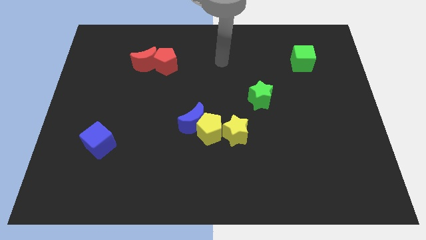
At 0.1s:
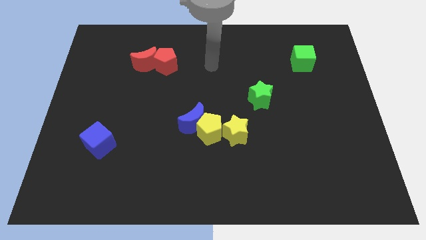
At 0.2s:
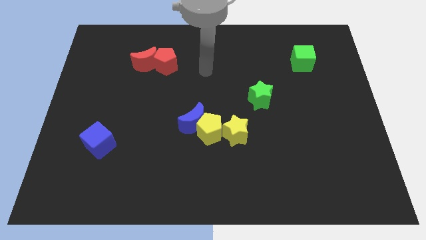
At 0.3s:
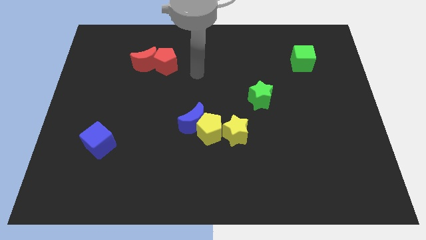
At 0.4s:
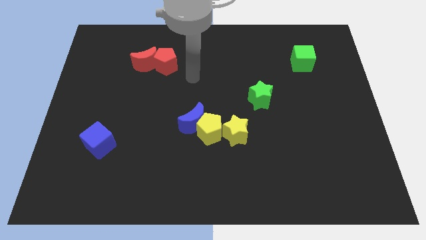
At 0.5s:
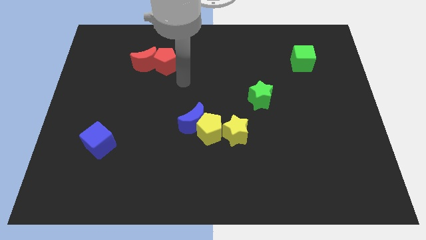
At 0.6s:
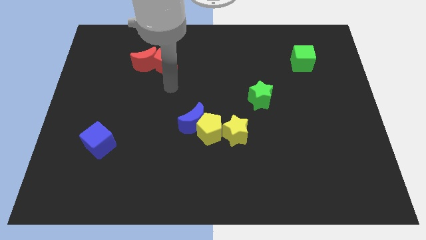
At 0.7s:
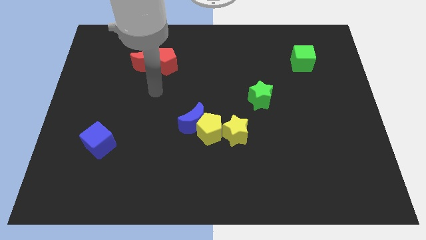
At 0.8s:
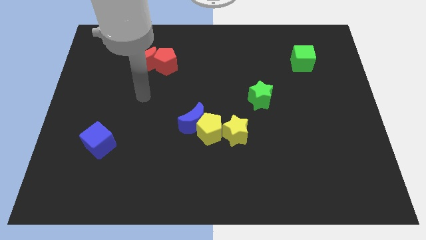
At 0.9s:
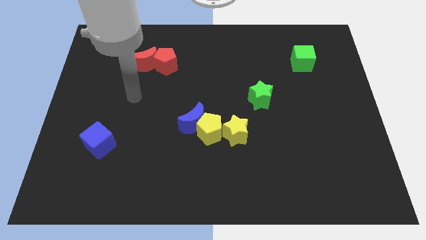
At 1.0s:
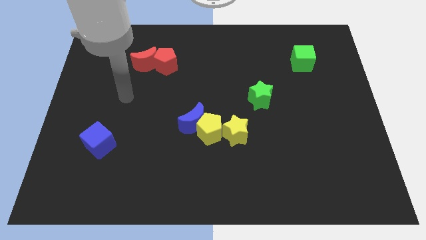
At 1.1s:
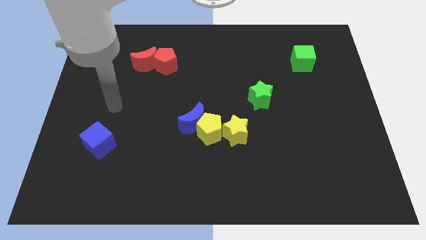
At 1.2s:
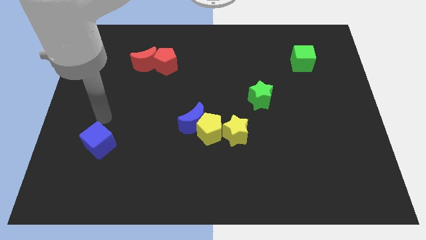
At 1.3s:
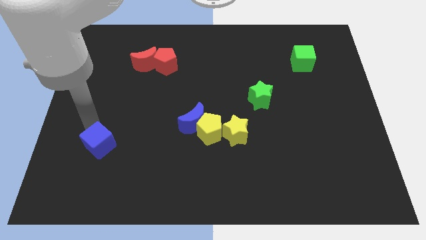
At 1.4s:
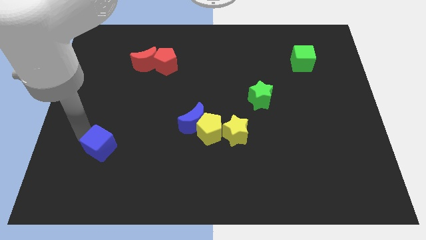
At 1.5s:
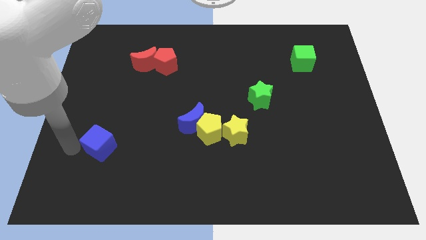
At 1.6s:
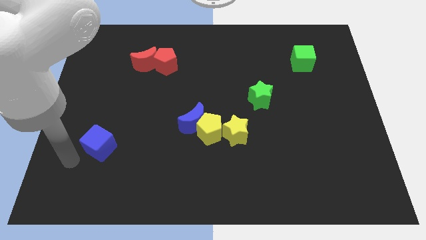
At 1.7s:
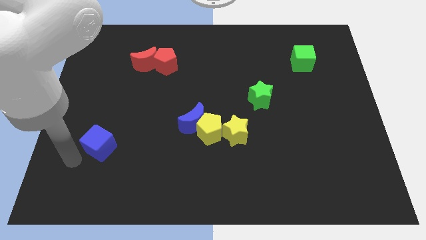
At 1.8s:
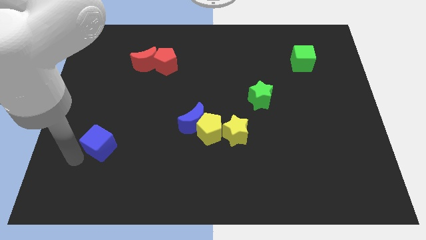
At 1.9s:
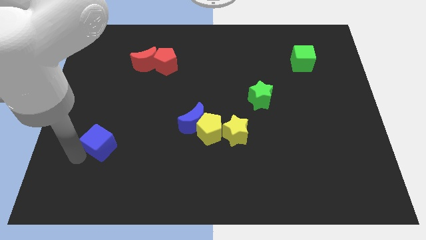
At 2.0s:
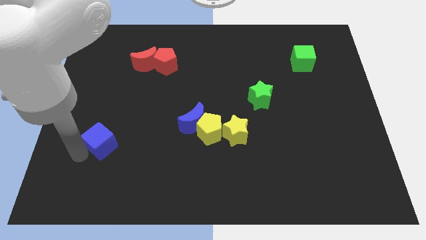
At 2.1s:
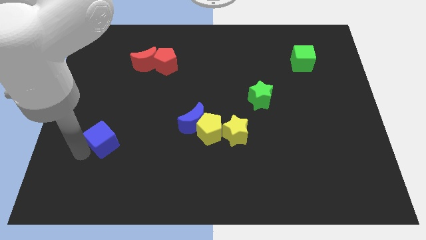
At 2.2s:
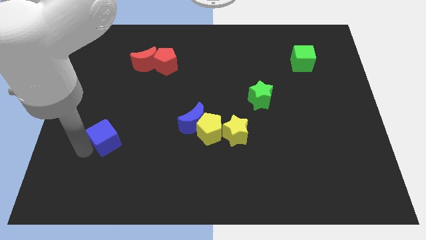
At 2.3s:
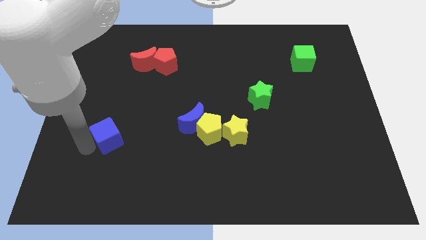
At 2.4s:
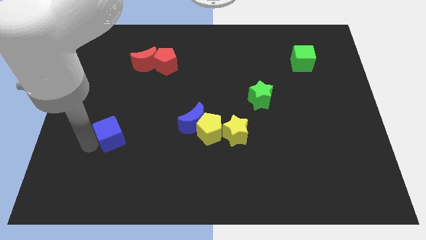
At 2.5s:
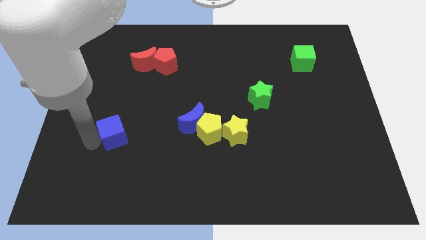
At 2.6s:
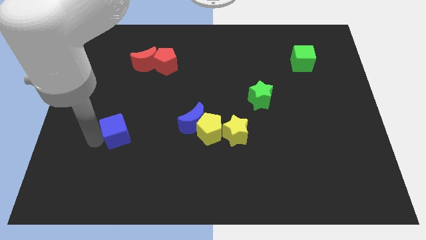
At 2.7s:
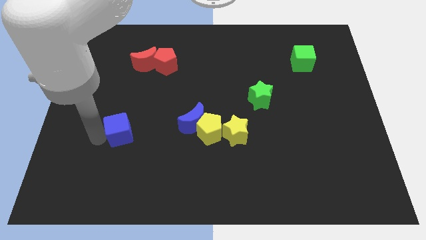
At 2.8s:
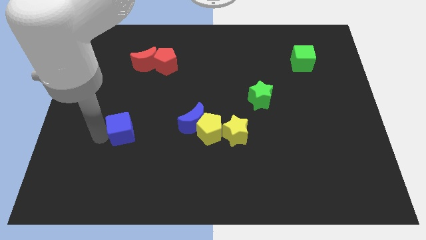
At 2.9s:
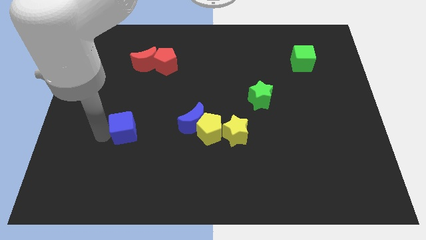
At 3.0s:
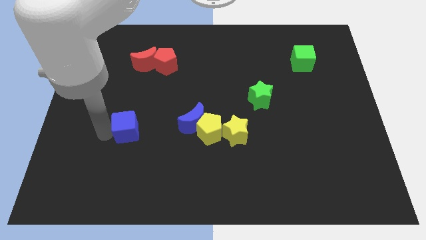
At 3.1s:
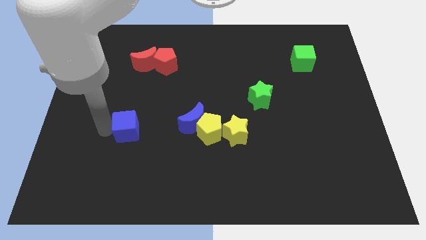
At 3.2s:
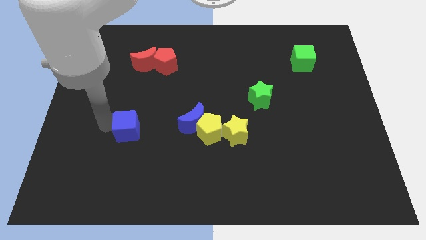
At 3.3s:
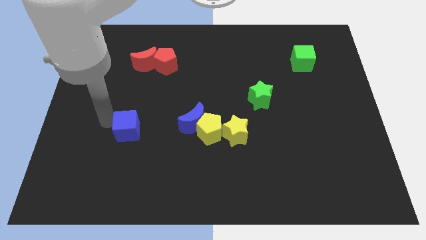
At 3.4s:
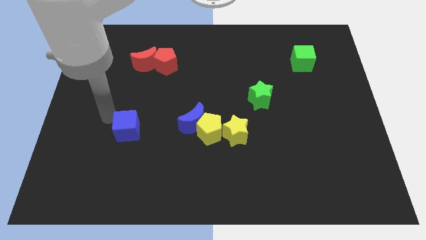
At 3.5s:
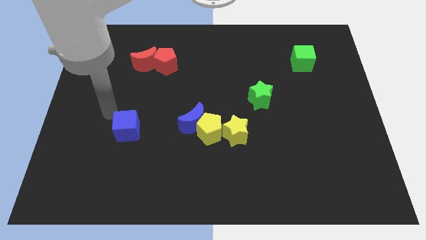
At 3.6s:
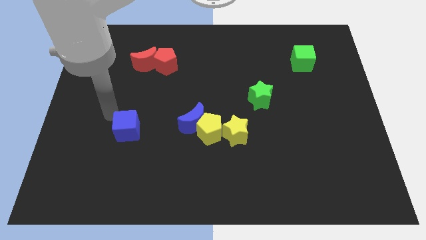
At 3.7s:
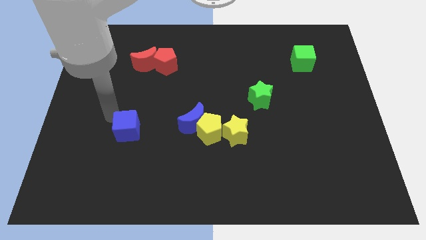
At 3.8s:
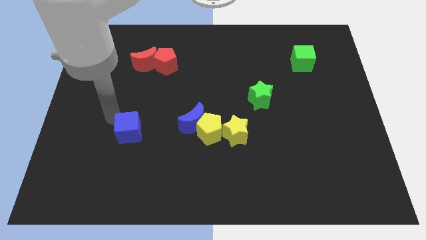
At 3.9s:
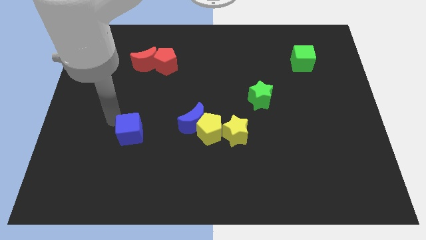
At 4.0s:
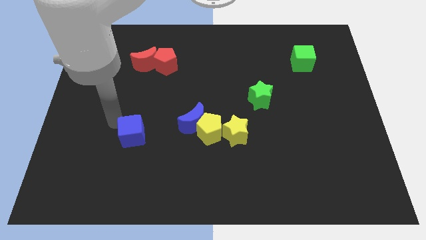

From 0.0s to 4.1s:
slide the blue cube to the right a little bit

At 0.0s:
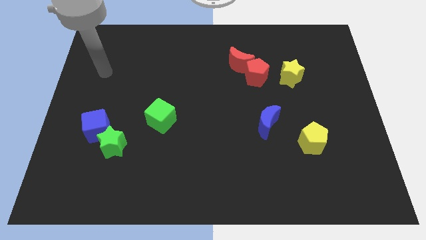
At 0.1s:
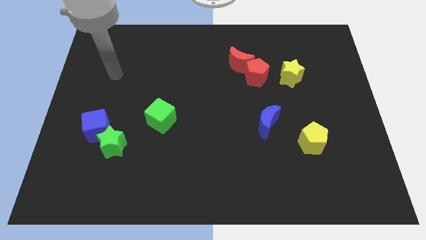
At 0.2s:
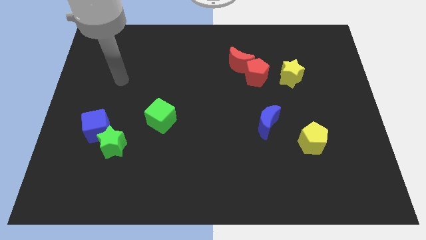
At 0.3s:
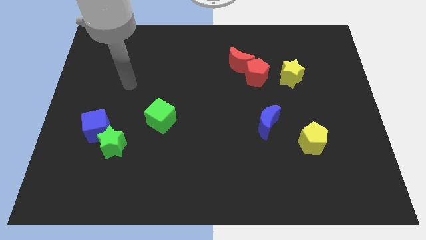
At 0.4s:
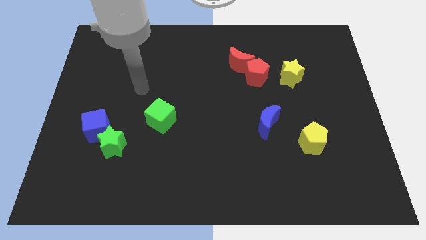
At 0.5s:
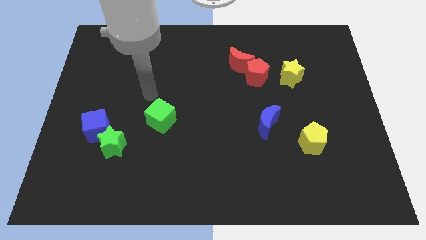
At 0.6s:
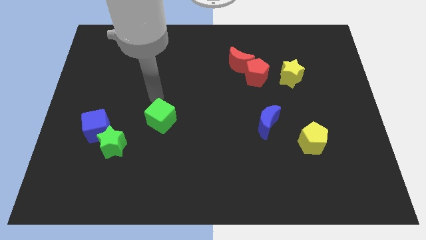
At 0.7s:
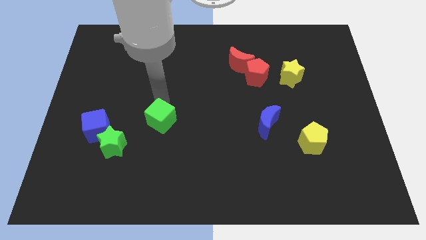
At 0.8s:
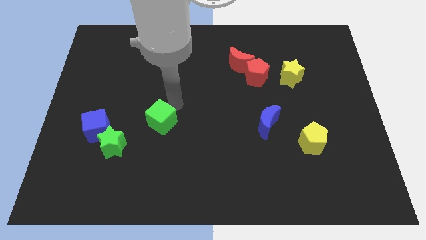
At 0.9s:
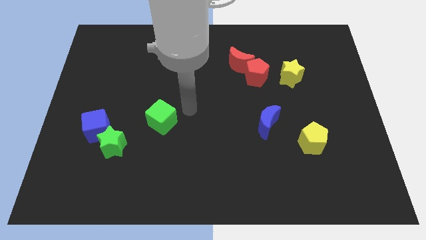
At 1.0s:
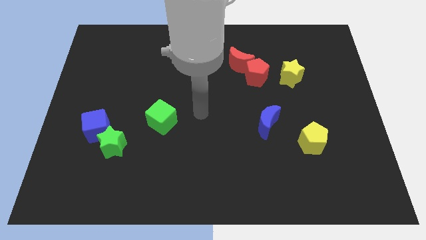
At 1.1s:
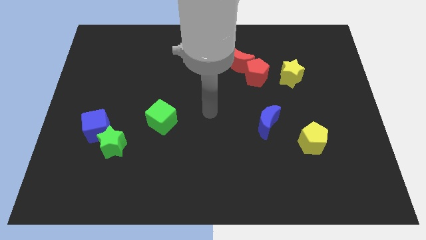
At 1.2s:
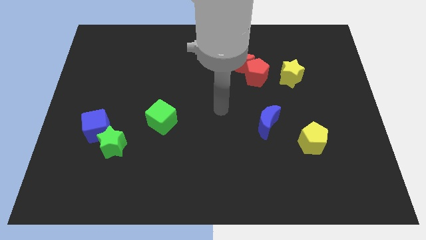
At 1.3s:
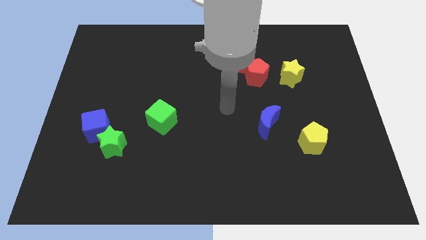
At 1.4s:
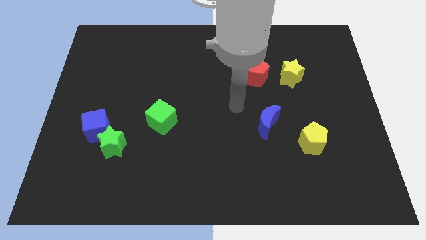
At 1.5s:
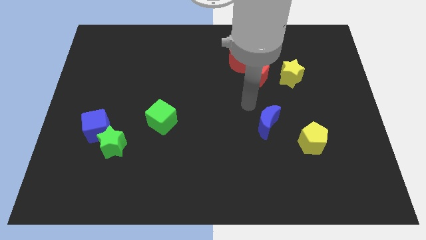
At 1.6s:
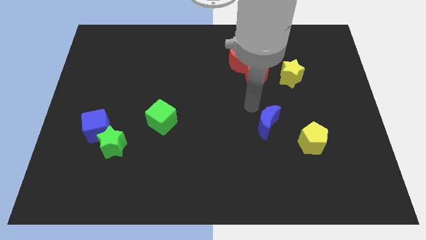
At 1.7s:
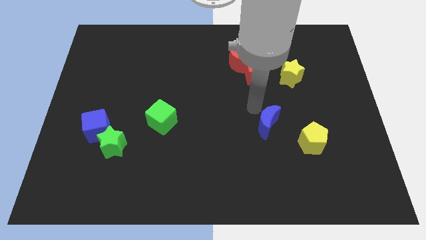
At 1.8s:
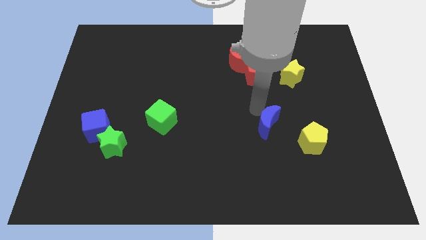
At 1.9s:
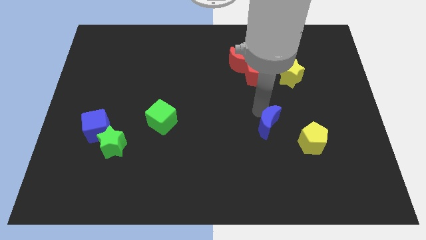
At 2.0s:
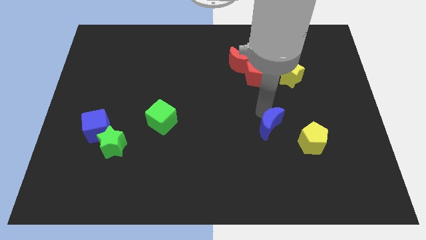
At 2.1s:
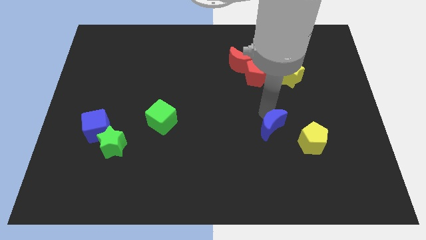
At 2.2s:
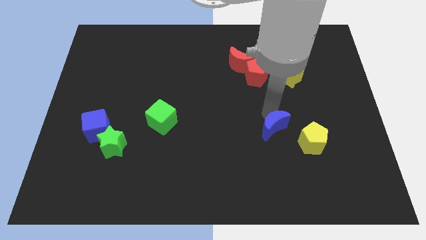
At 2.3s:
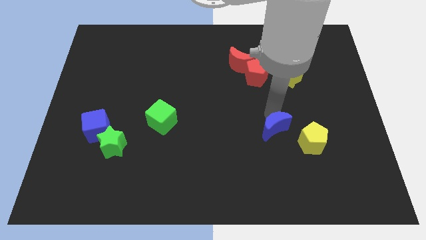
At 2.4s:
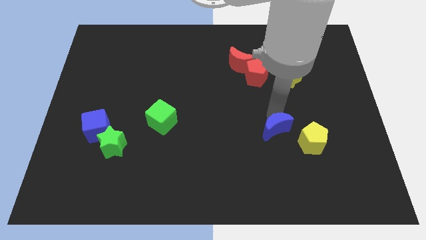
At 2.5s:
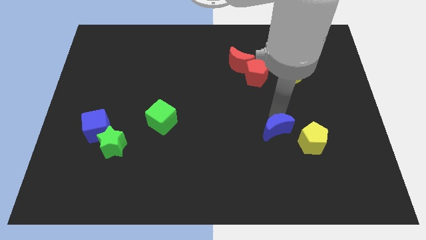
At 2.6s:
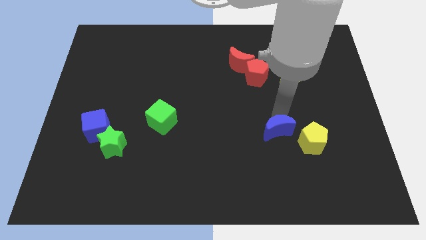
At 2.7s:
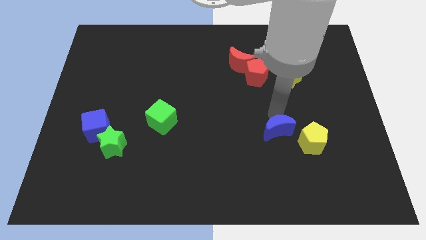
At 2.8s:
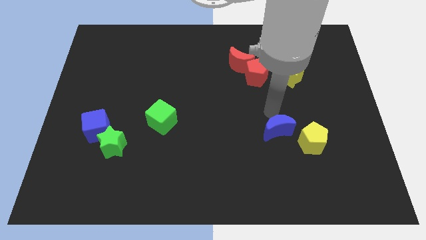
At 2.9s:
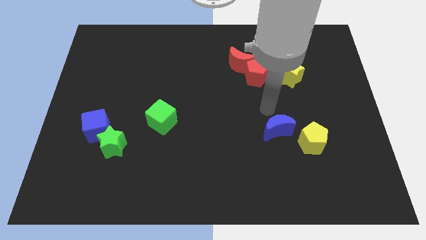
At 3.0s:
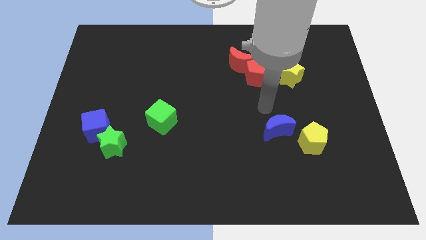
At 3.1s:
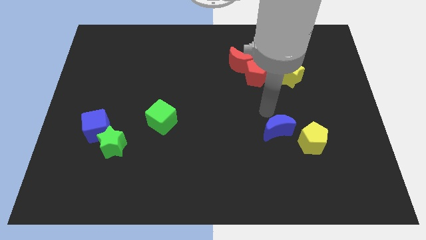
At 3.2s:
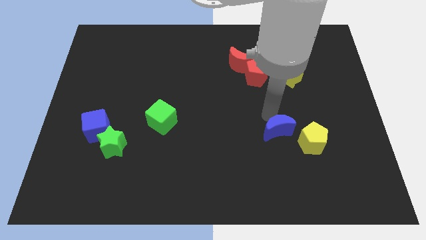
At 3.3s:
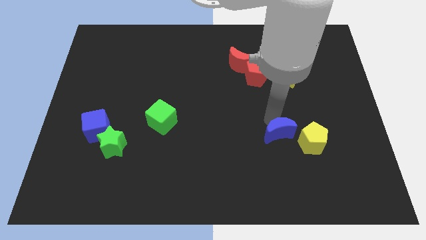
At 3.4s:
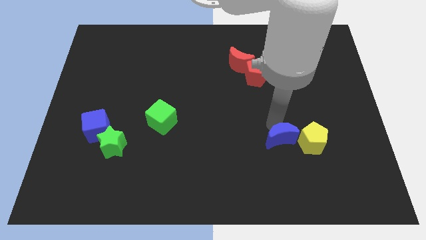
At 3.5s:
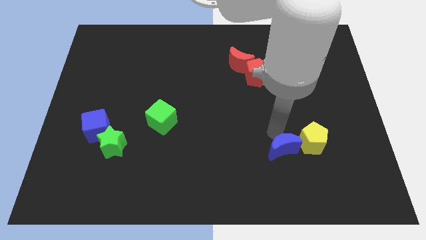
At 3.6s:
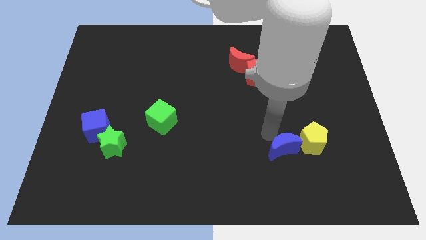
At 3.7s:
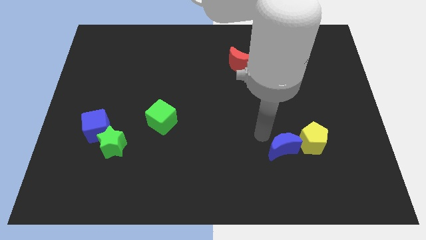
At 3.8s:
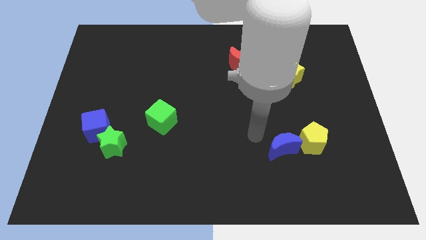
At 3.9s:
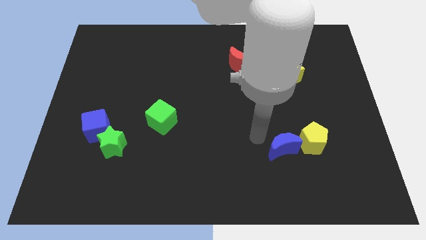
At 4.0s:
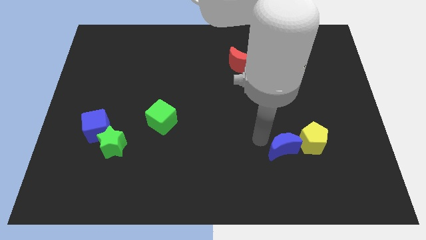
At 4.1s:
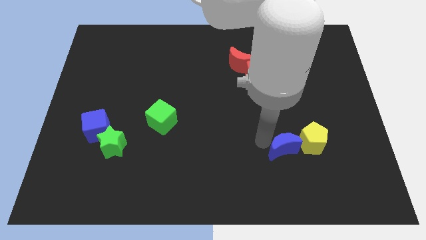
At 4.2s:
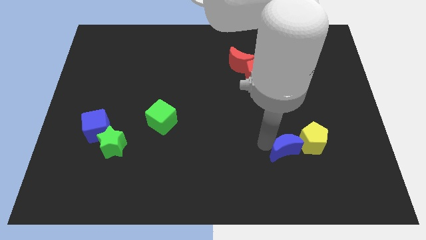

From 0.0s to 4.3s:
slightly move the blue moon downwards and right diagonally

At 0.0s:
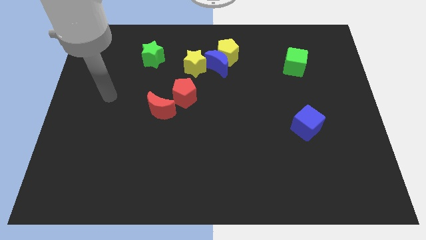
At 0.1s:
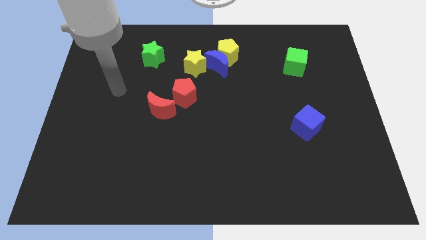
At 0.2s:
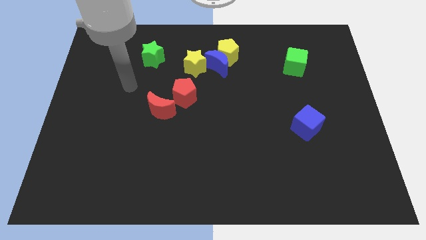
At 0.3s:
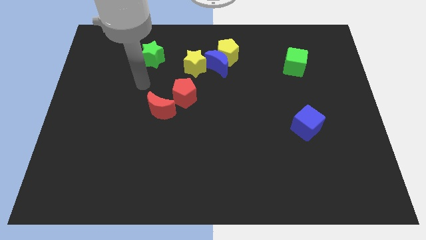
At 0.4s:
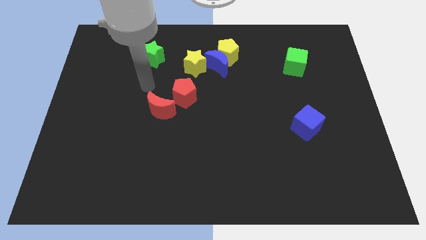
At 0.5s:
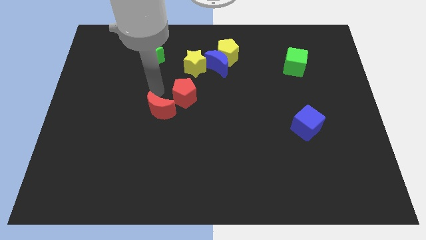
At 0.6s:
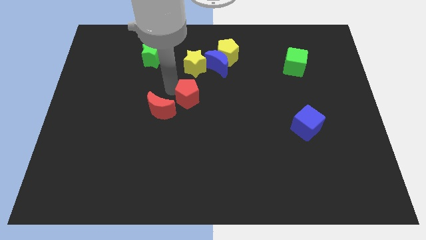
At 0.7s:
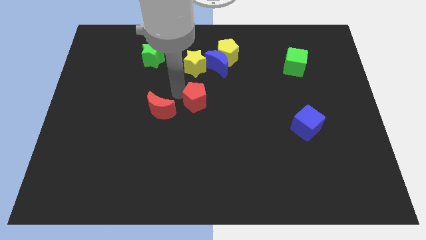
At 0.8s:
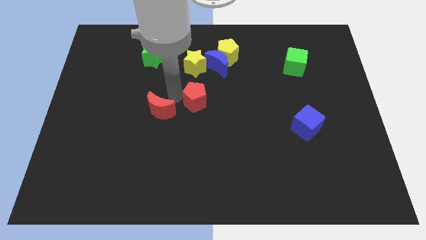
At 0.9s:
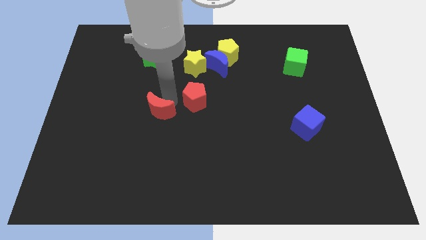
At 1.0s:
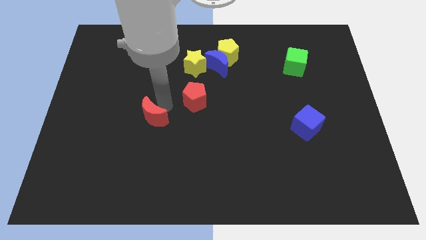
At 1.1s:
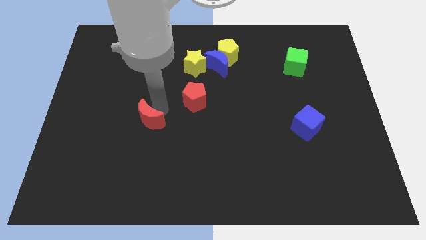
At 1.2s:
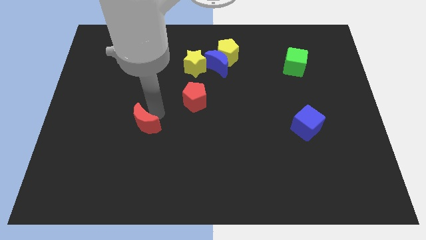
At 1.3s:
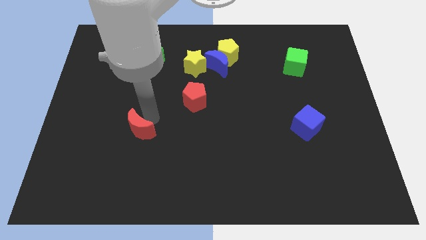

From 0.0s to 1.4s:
slightly move the red moon diagonally down and left
